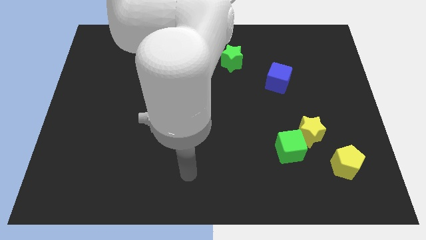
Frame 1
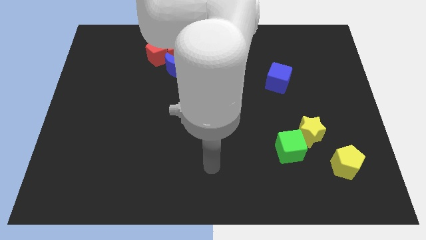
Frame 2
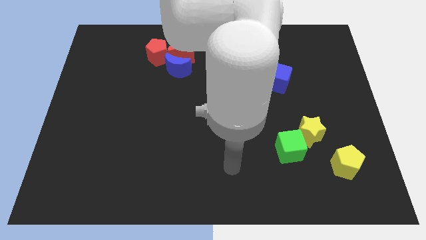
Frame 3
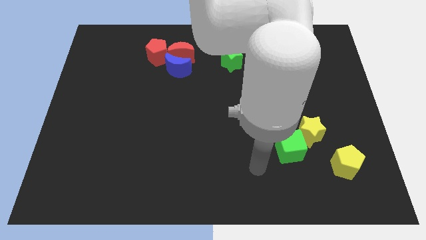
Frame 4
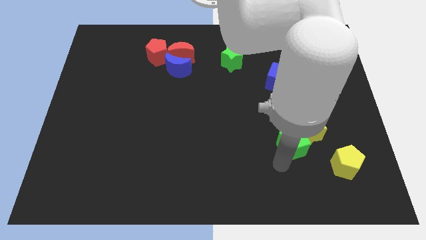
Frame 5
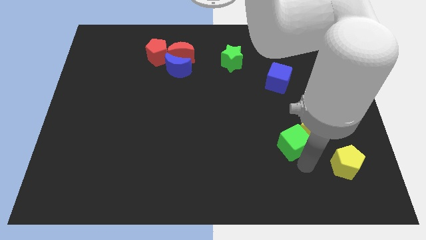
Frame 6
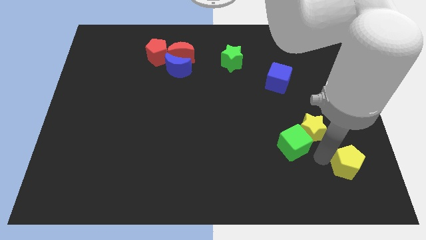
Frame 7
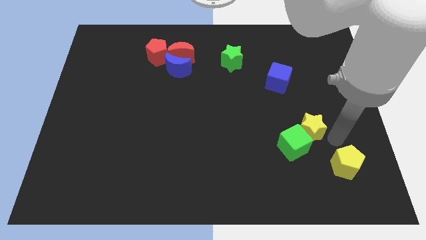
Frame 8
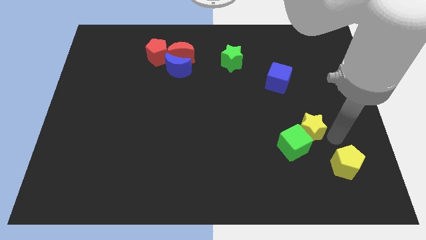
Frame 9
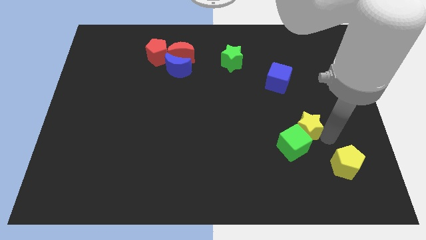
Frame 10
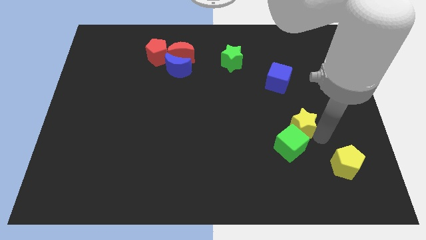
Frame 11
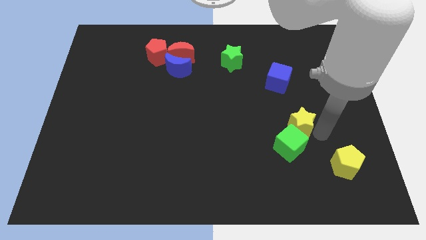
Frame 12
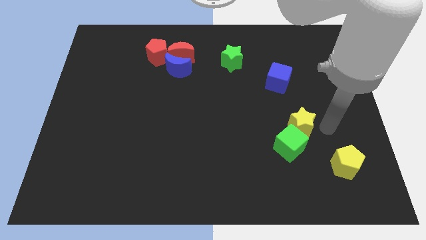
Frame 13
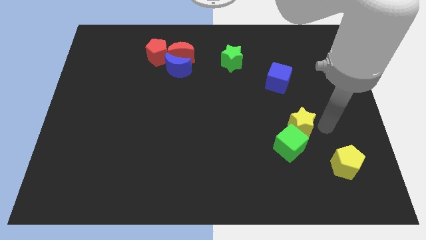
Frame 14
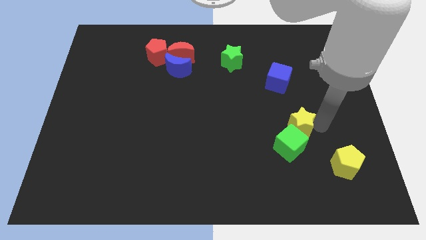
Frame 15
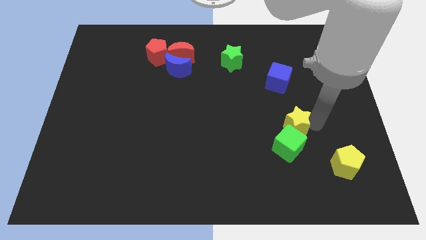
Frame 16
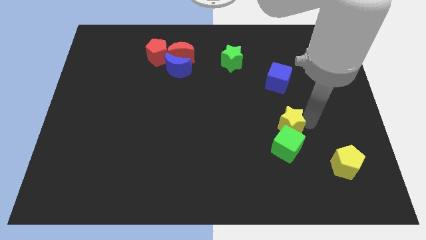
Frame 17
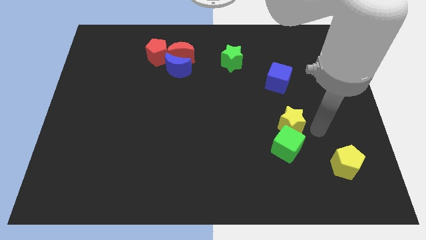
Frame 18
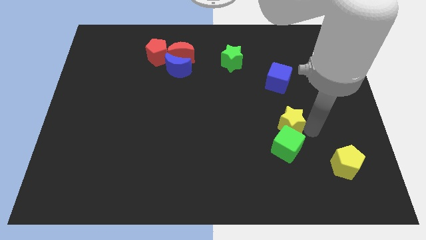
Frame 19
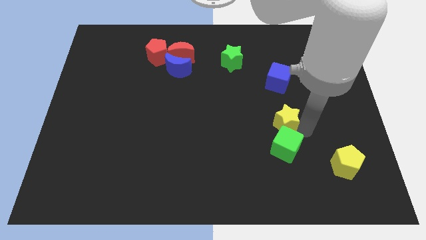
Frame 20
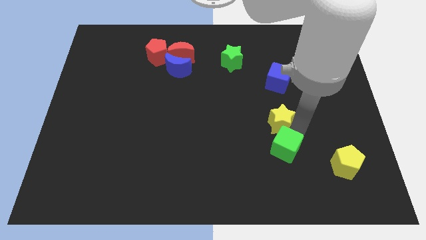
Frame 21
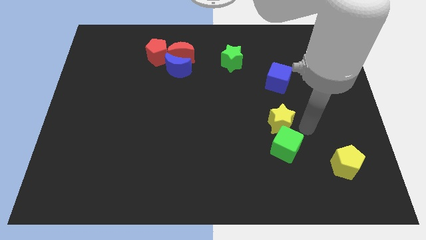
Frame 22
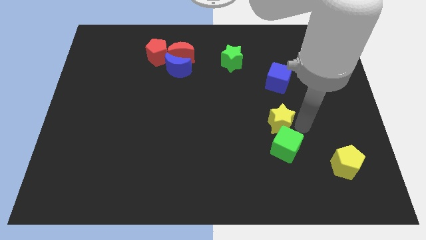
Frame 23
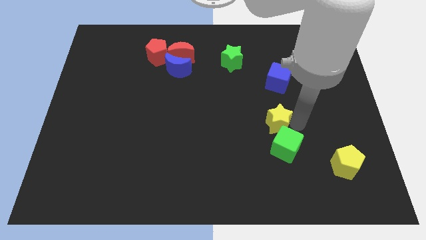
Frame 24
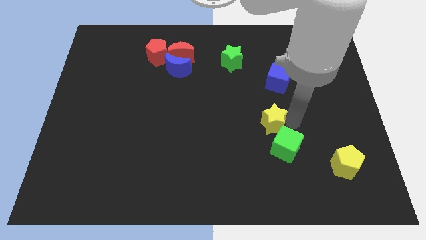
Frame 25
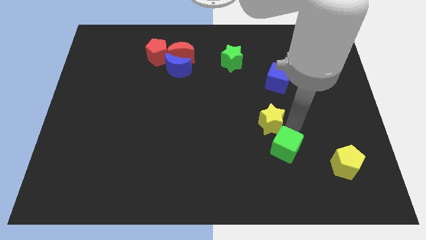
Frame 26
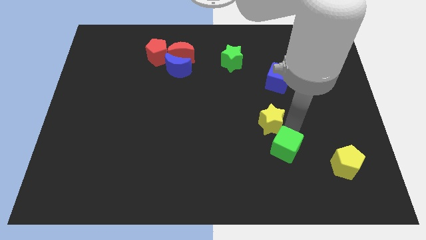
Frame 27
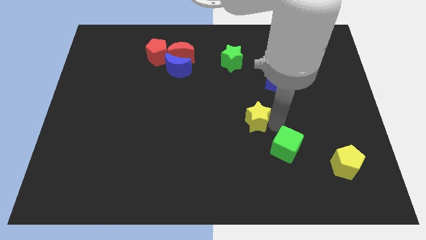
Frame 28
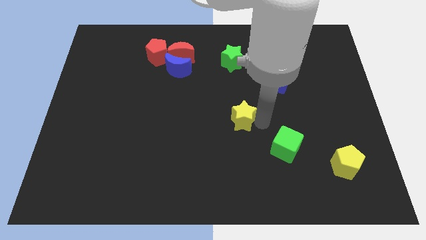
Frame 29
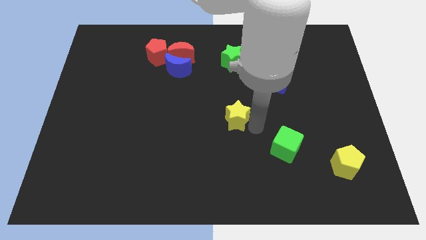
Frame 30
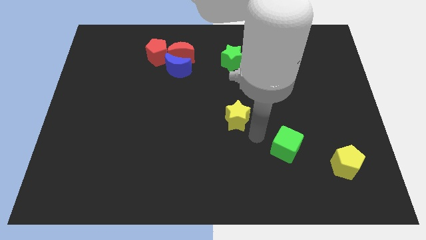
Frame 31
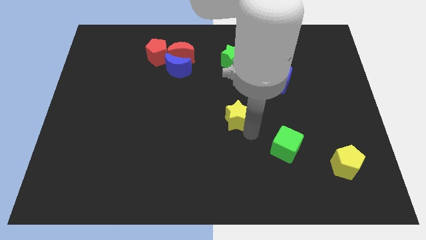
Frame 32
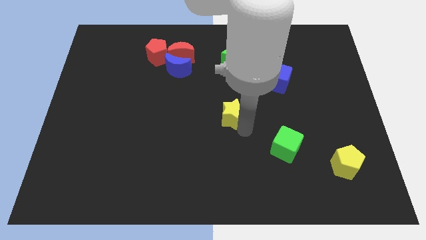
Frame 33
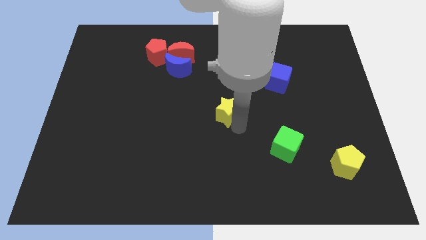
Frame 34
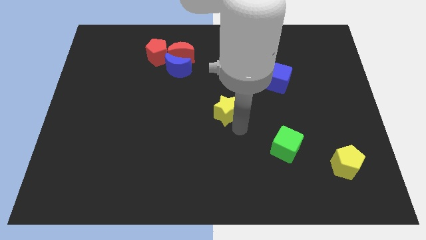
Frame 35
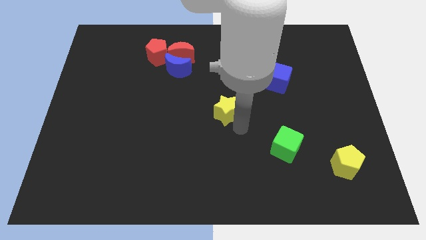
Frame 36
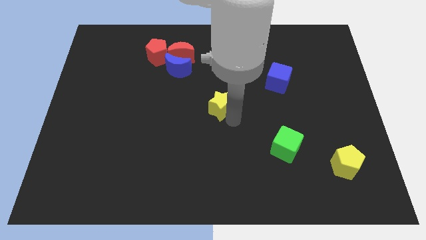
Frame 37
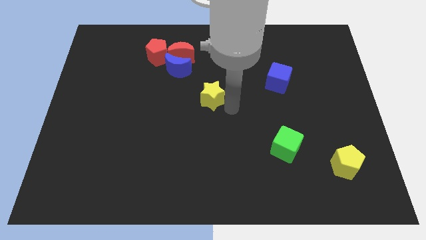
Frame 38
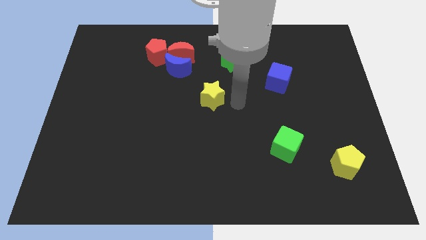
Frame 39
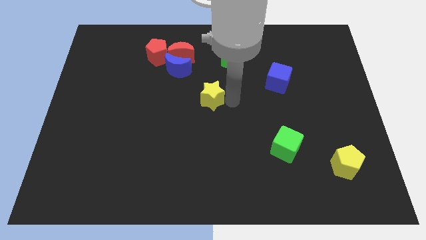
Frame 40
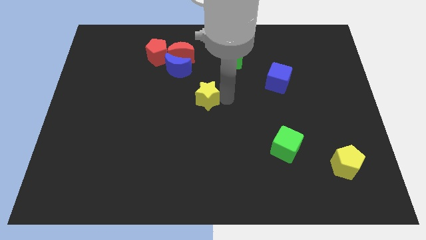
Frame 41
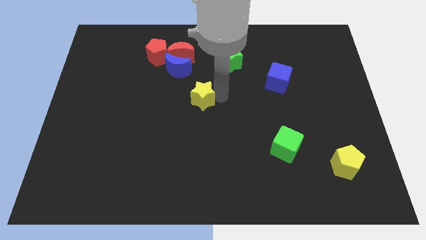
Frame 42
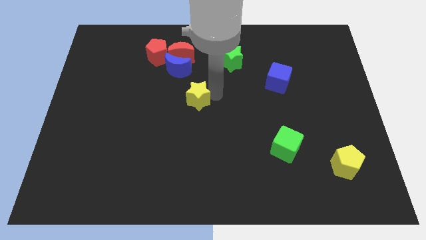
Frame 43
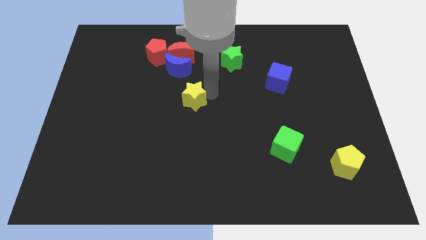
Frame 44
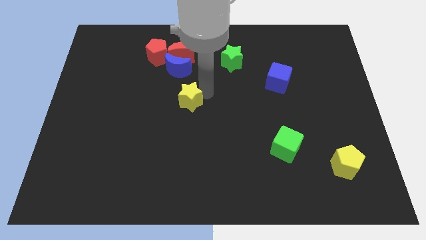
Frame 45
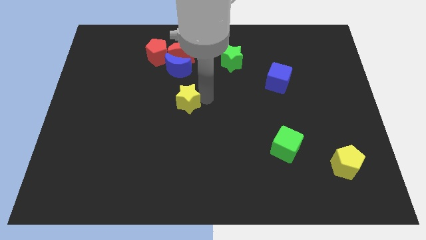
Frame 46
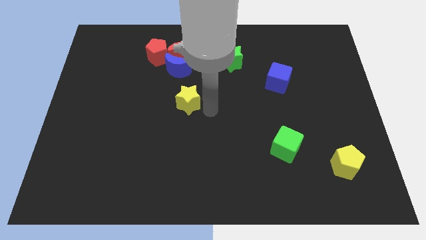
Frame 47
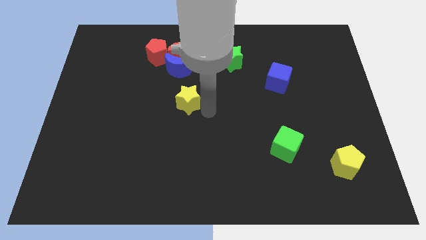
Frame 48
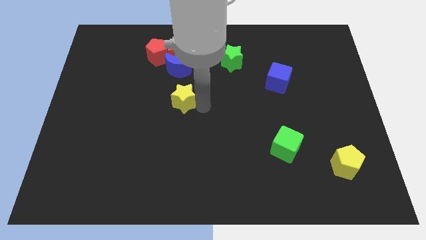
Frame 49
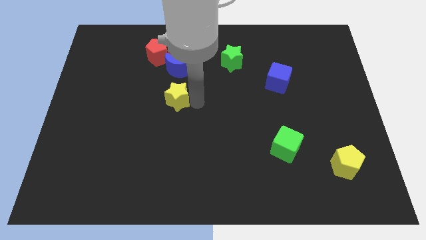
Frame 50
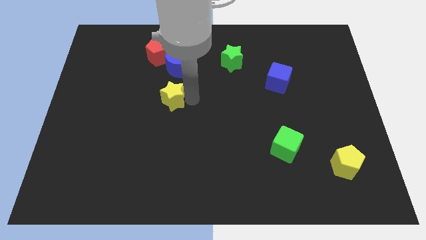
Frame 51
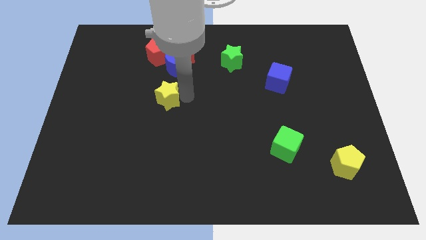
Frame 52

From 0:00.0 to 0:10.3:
put the yellow star to the bottom side of the red pentagon

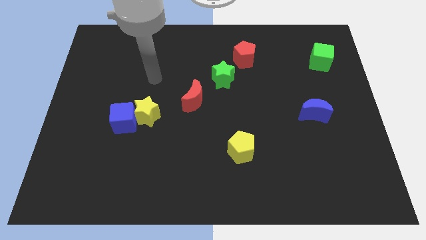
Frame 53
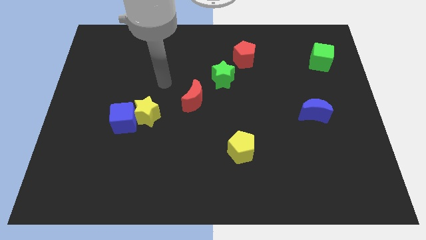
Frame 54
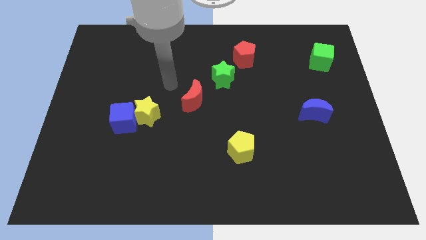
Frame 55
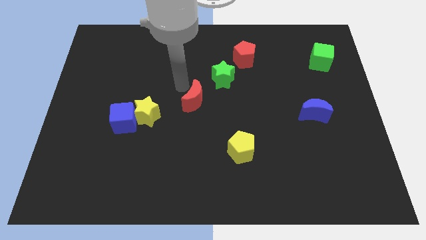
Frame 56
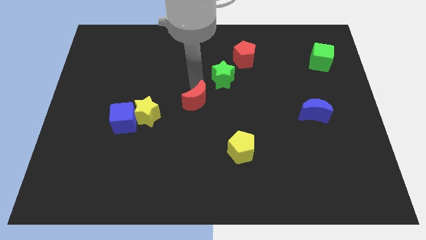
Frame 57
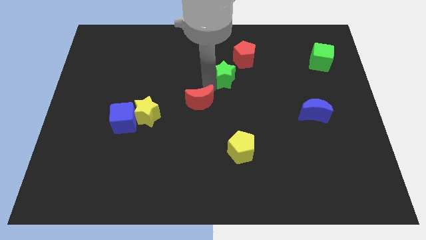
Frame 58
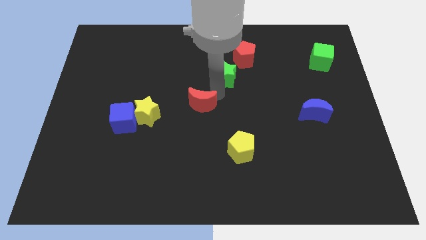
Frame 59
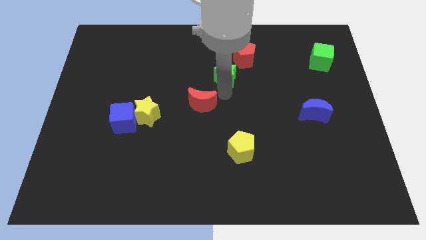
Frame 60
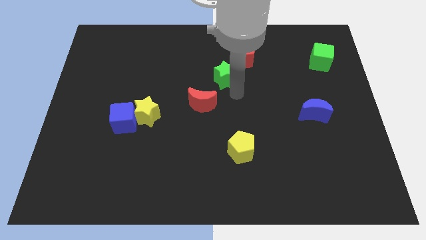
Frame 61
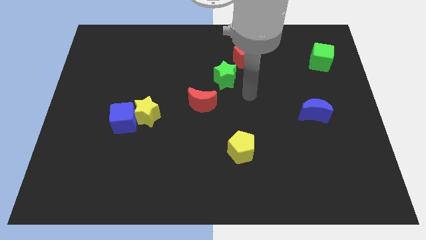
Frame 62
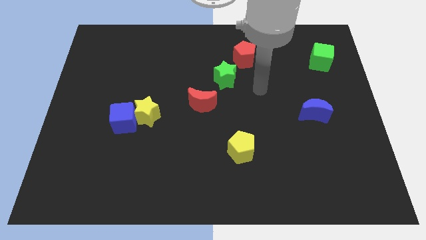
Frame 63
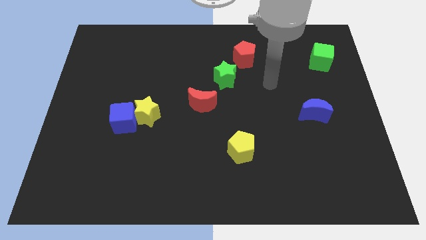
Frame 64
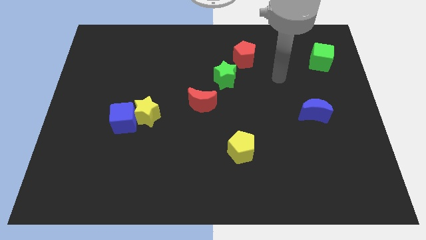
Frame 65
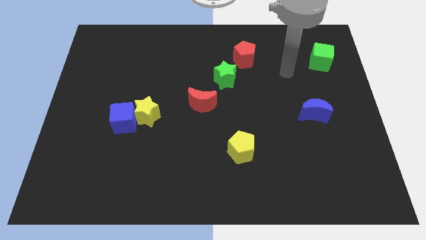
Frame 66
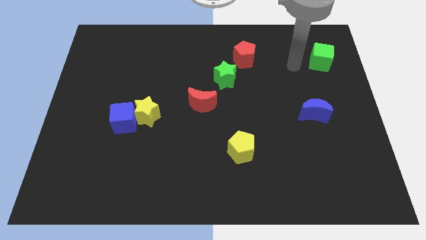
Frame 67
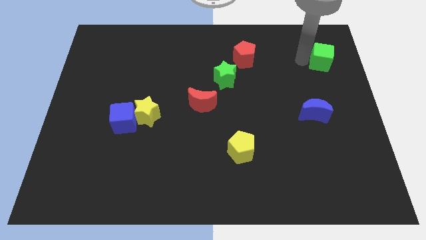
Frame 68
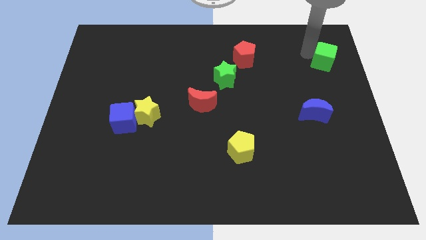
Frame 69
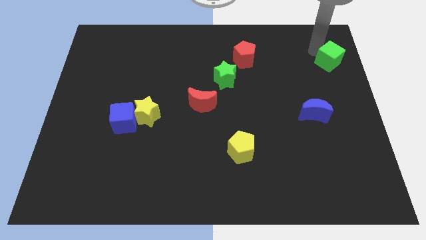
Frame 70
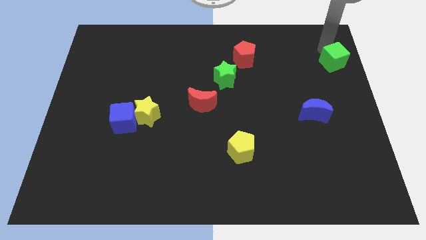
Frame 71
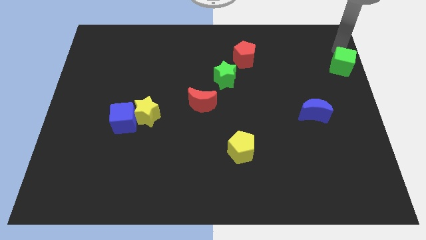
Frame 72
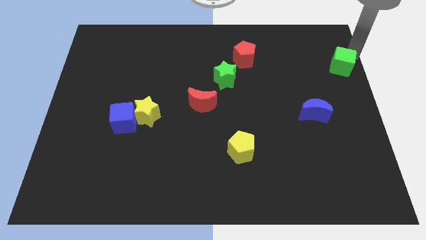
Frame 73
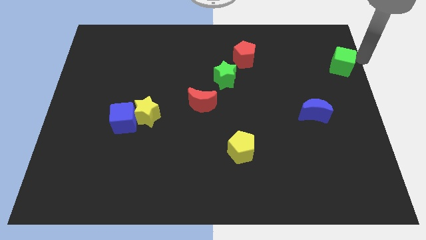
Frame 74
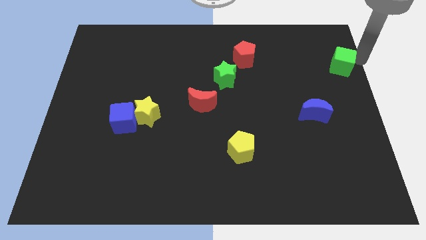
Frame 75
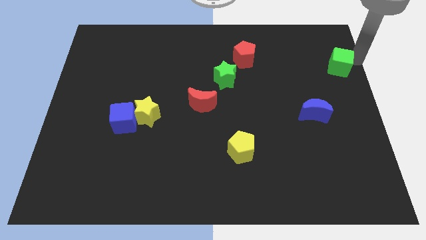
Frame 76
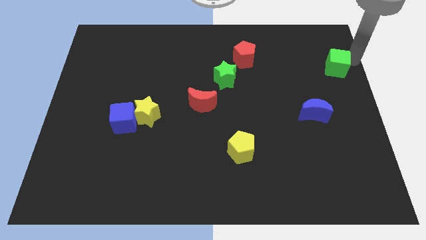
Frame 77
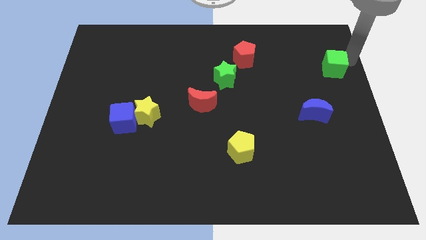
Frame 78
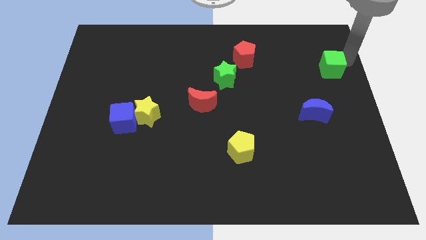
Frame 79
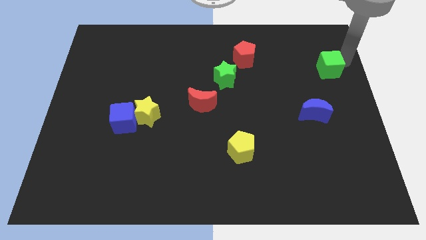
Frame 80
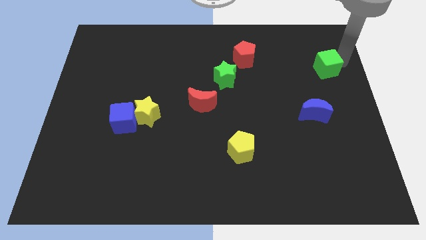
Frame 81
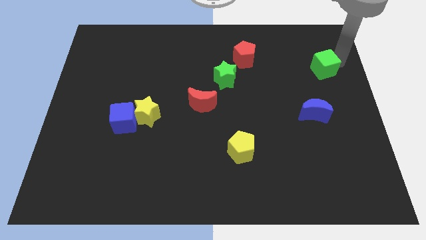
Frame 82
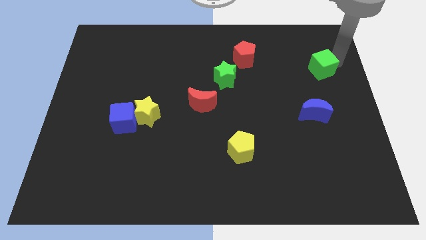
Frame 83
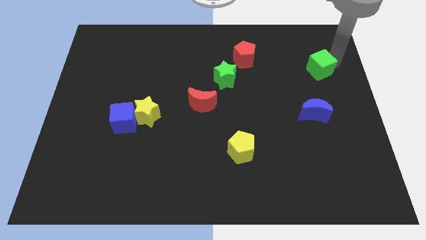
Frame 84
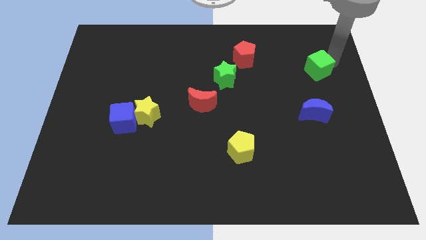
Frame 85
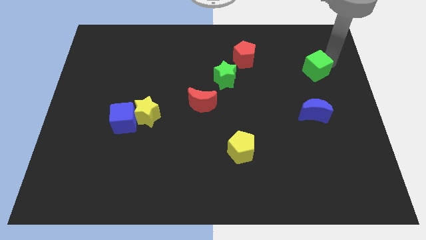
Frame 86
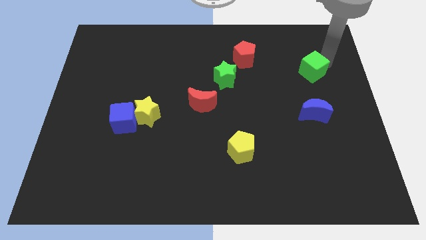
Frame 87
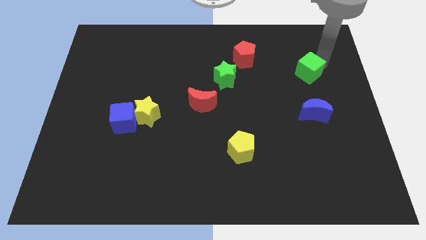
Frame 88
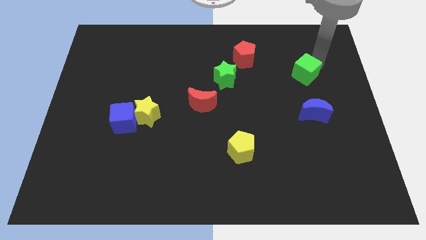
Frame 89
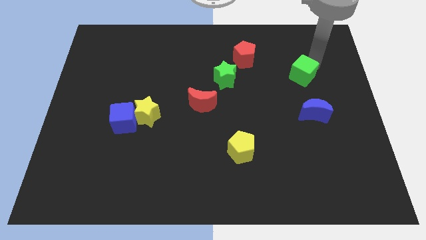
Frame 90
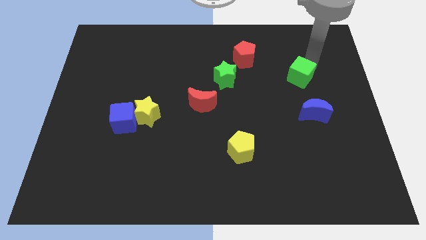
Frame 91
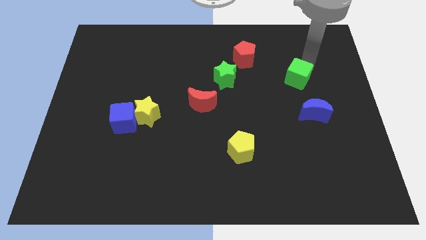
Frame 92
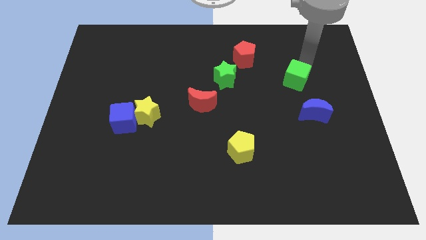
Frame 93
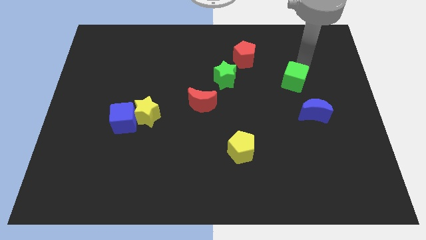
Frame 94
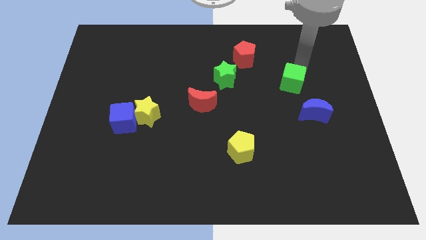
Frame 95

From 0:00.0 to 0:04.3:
push the green cube to the top left of the blue moon
